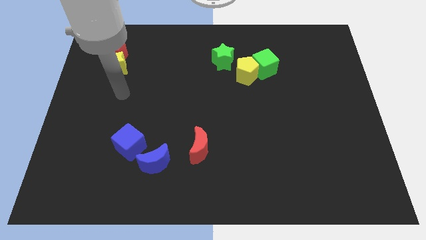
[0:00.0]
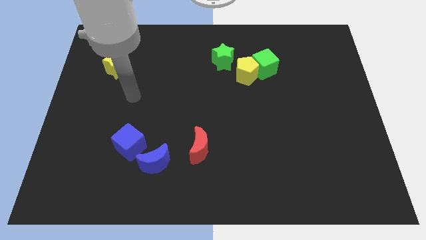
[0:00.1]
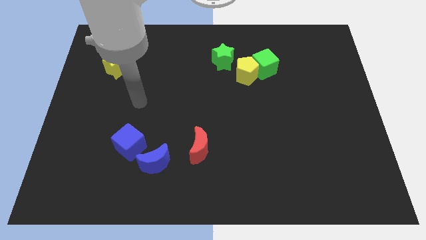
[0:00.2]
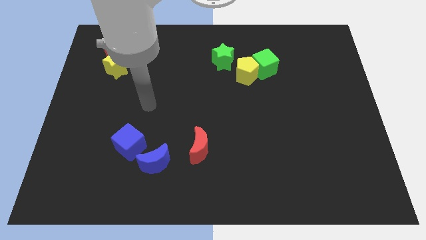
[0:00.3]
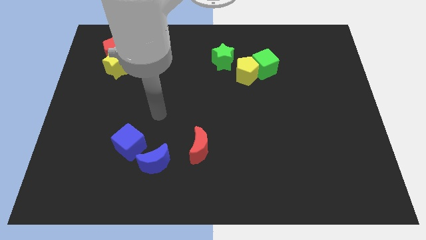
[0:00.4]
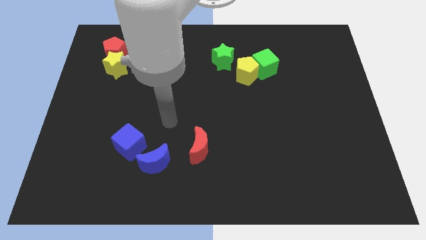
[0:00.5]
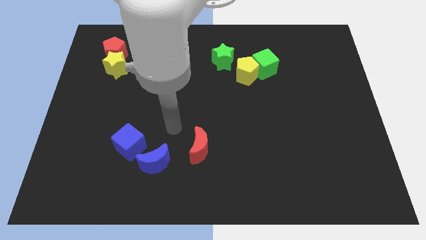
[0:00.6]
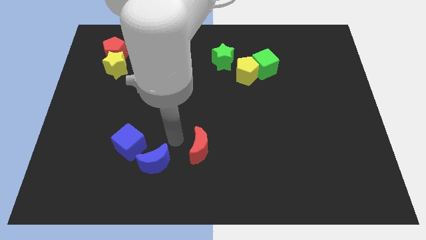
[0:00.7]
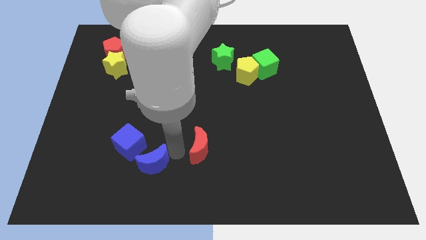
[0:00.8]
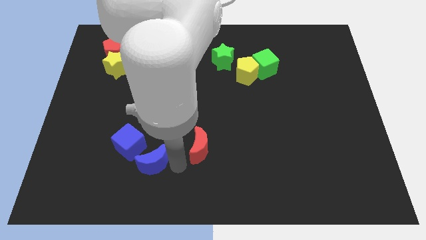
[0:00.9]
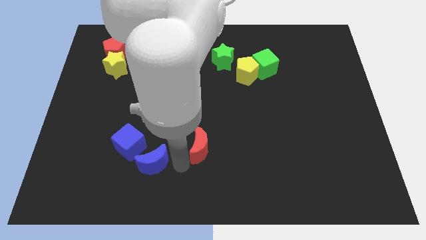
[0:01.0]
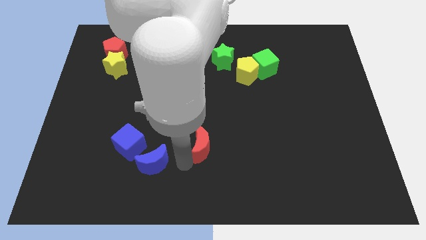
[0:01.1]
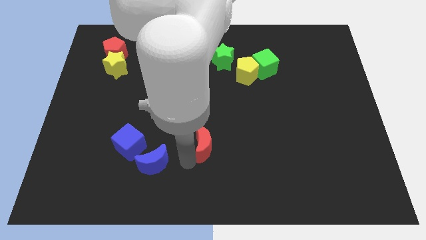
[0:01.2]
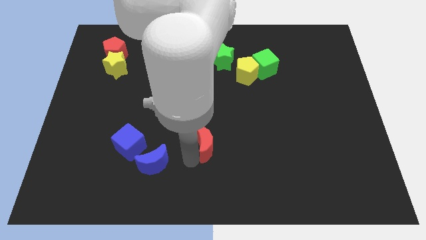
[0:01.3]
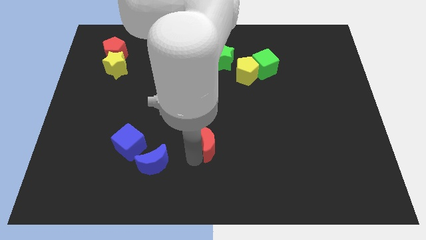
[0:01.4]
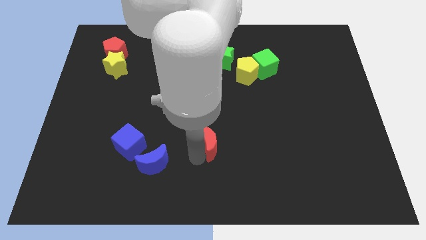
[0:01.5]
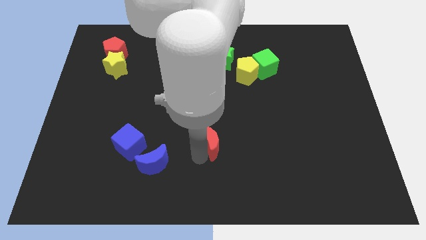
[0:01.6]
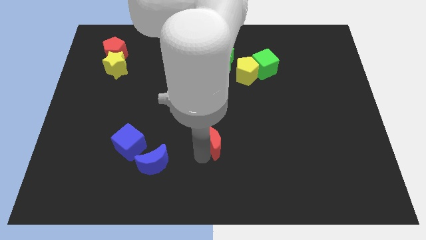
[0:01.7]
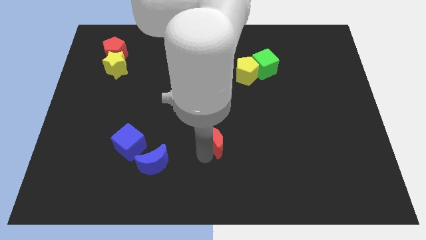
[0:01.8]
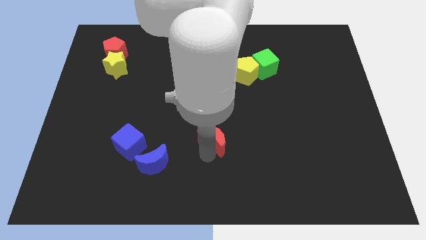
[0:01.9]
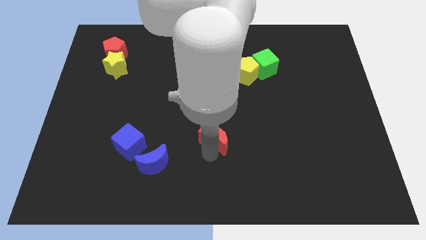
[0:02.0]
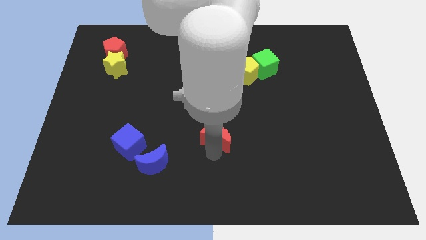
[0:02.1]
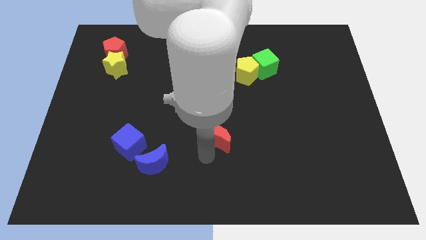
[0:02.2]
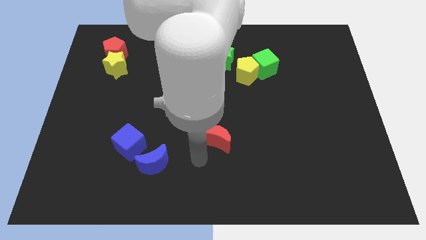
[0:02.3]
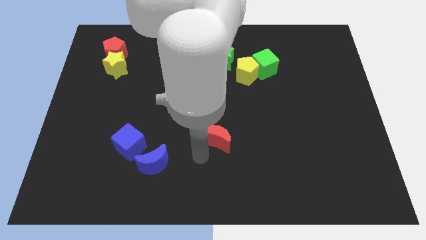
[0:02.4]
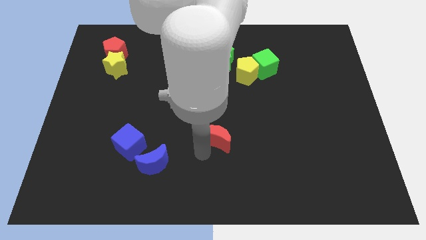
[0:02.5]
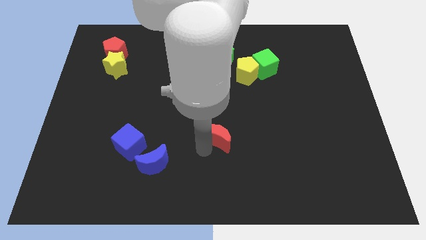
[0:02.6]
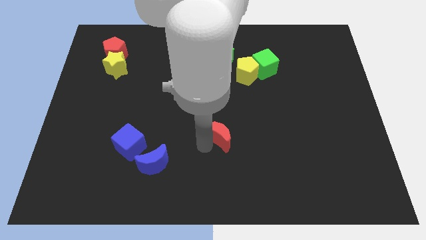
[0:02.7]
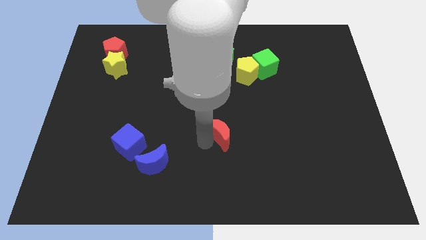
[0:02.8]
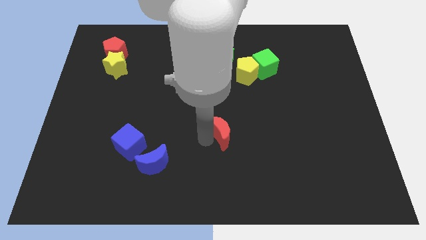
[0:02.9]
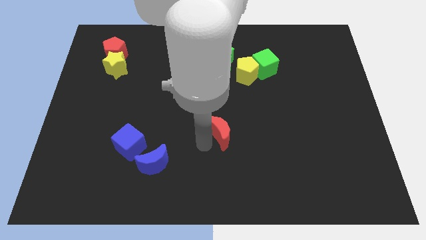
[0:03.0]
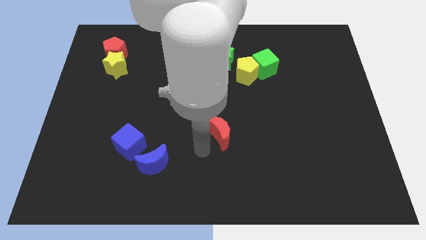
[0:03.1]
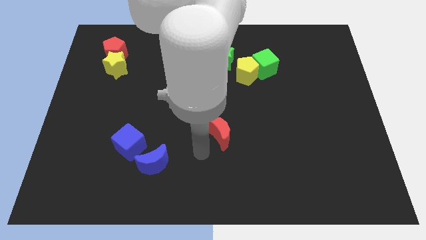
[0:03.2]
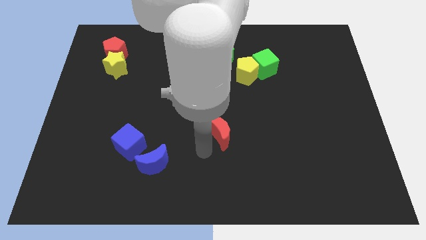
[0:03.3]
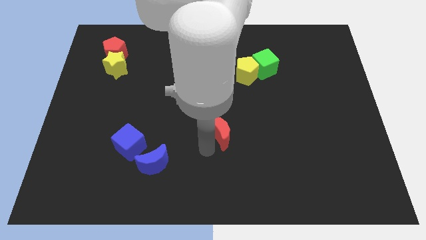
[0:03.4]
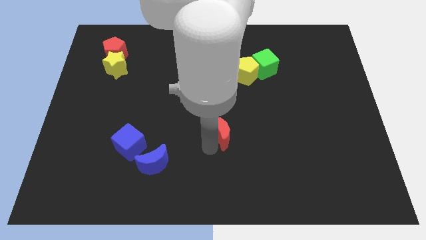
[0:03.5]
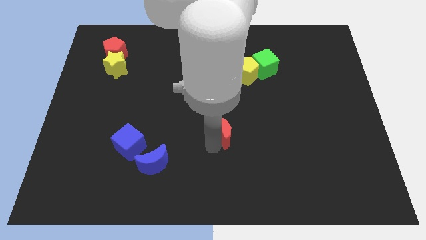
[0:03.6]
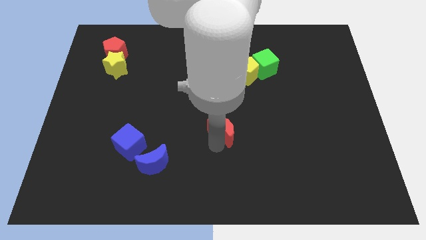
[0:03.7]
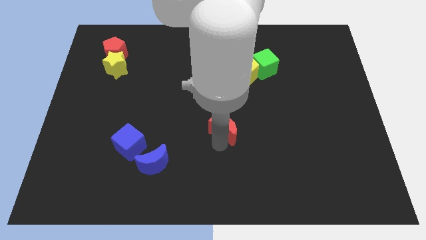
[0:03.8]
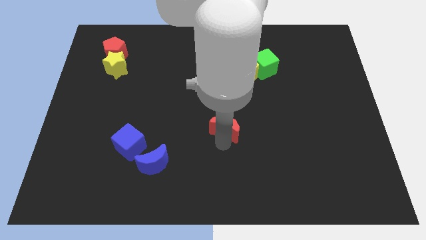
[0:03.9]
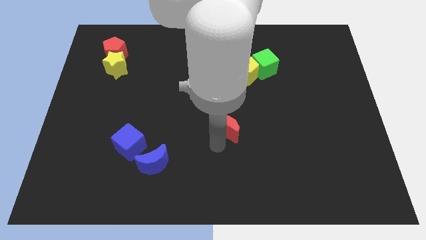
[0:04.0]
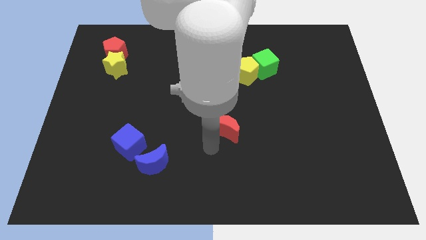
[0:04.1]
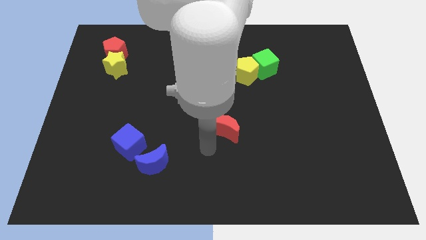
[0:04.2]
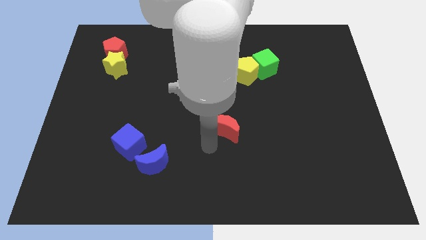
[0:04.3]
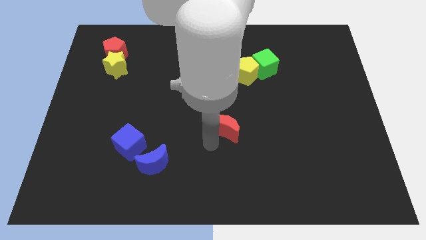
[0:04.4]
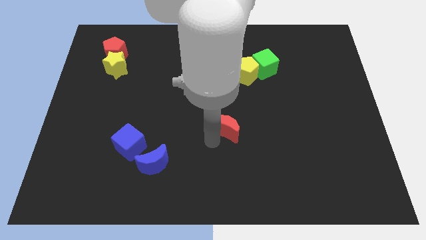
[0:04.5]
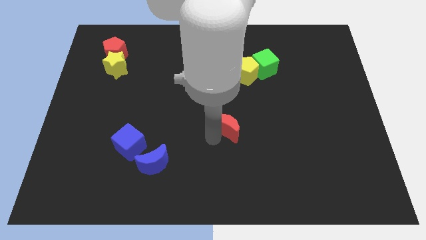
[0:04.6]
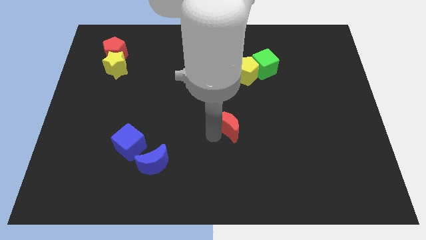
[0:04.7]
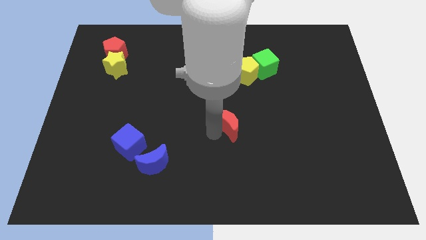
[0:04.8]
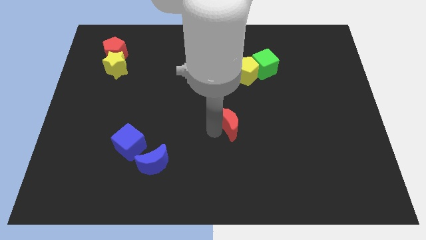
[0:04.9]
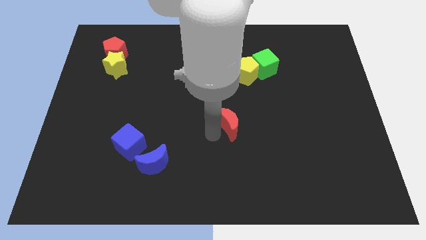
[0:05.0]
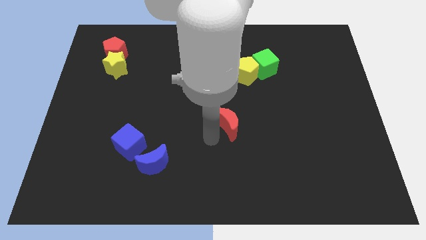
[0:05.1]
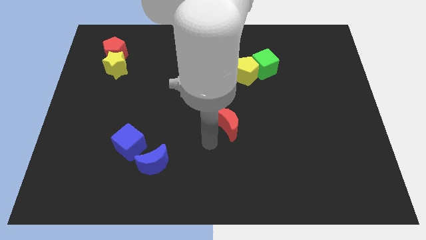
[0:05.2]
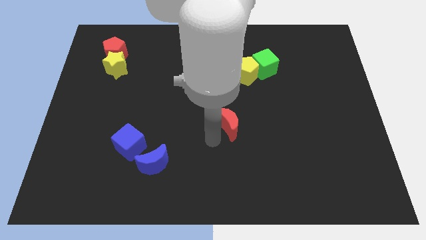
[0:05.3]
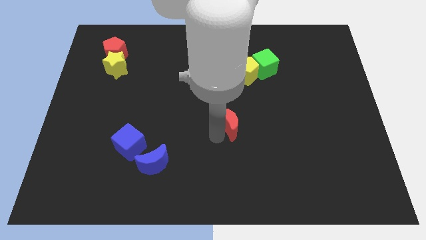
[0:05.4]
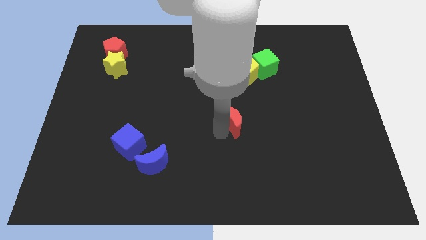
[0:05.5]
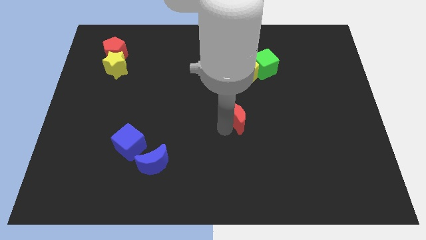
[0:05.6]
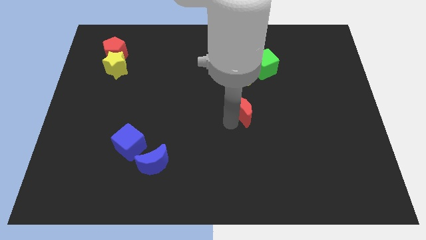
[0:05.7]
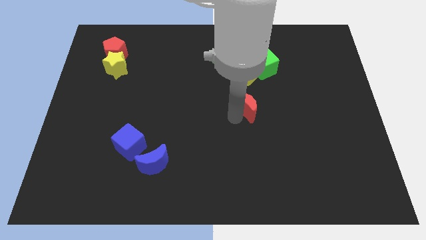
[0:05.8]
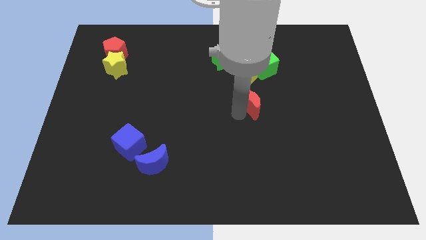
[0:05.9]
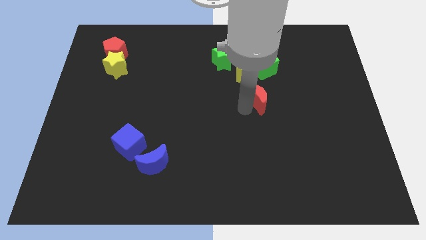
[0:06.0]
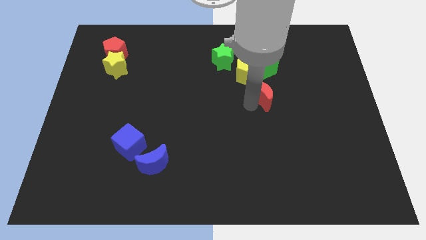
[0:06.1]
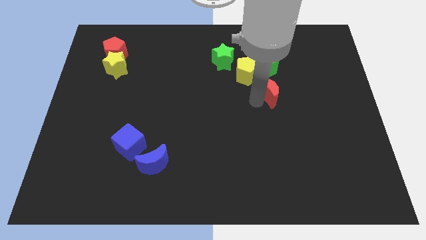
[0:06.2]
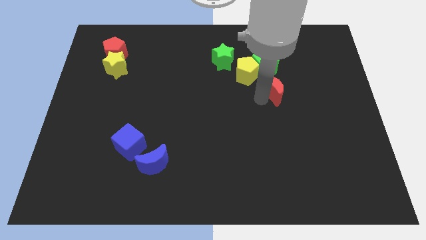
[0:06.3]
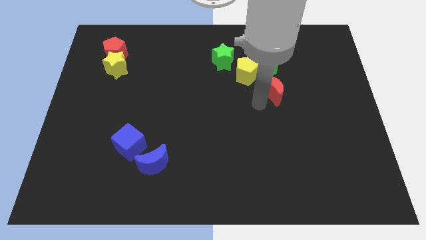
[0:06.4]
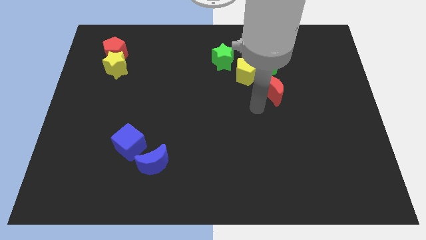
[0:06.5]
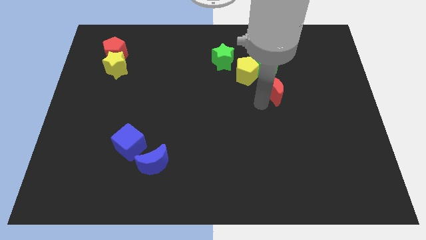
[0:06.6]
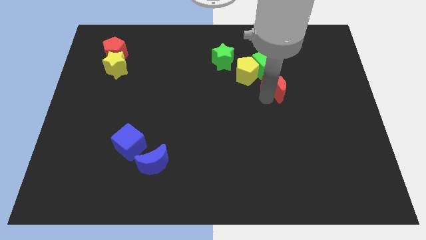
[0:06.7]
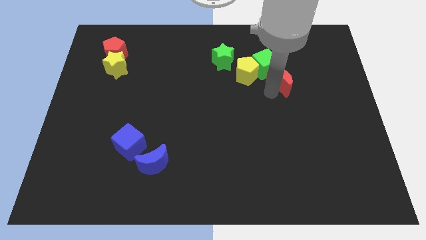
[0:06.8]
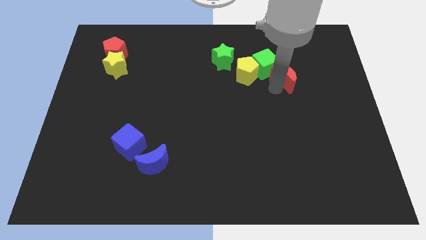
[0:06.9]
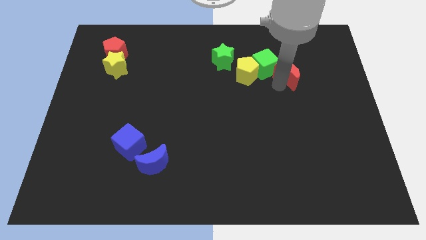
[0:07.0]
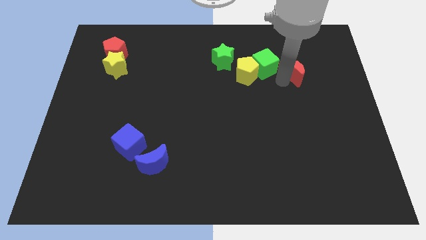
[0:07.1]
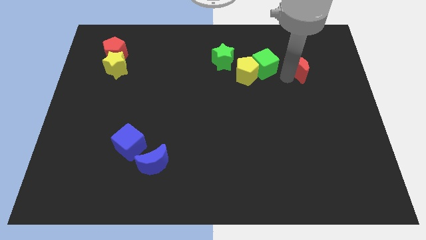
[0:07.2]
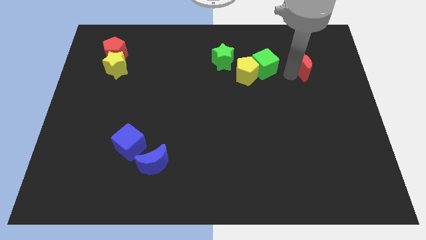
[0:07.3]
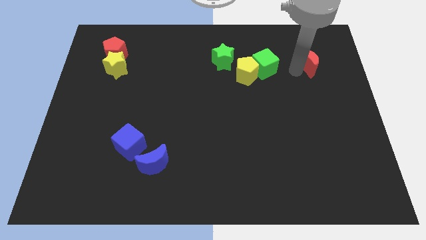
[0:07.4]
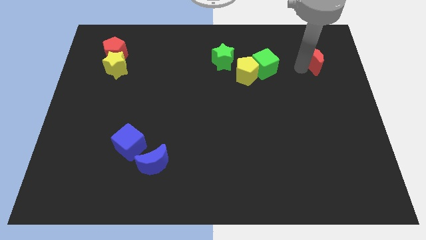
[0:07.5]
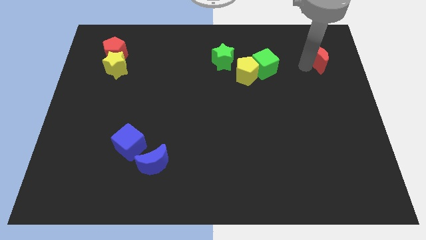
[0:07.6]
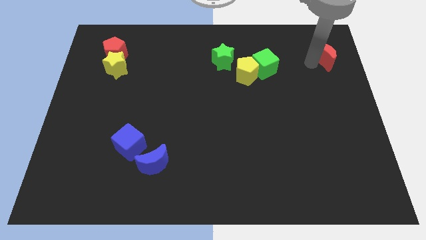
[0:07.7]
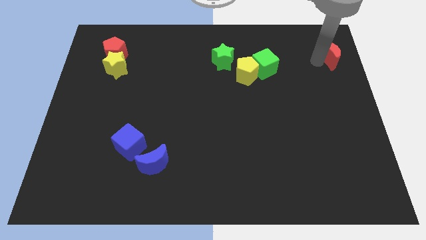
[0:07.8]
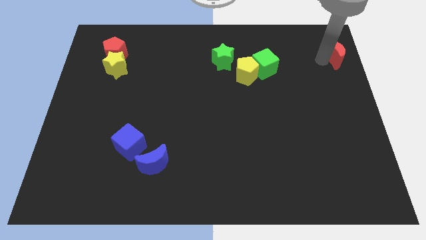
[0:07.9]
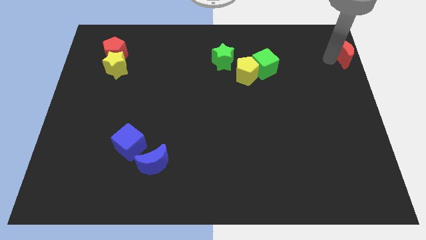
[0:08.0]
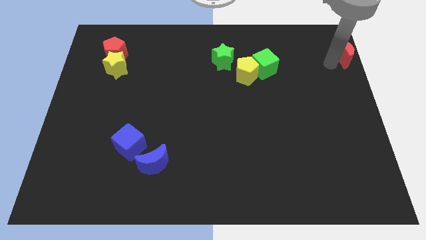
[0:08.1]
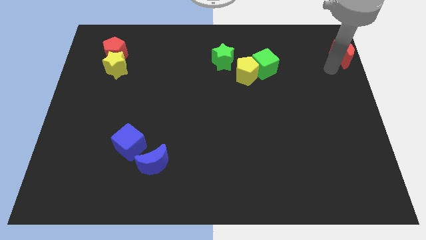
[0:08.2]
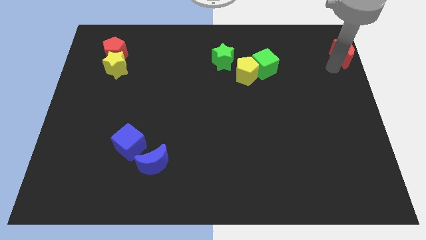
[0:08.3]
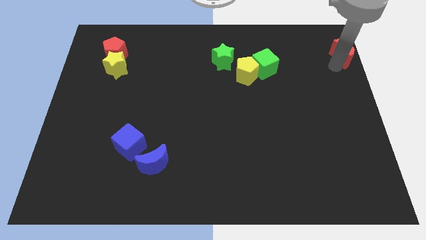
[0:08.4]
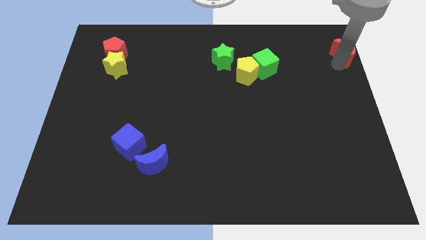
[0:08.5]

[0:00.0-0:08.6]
put the red moon to the top right
